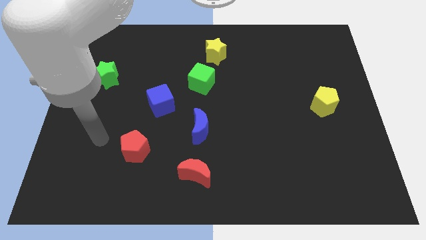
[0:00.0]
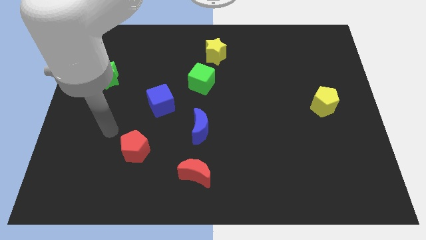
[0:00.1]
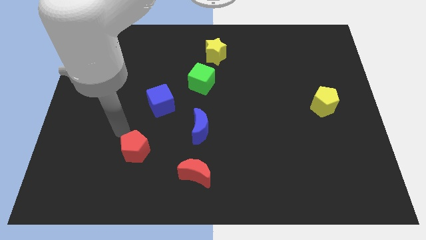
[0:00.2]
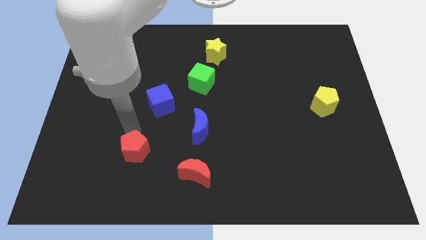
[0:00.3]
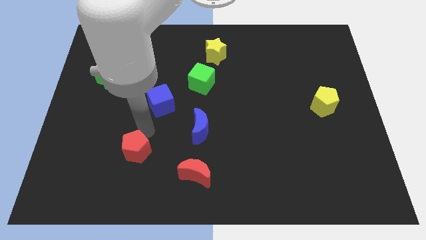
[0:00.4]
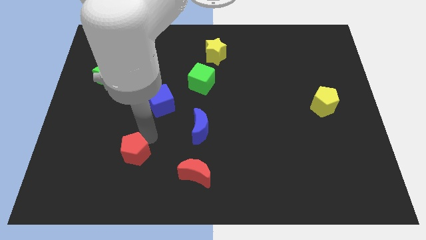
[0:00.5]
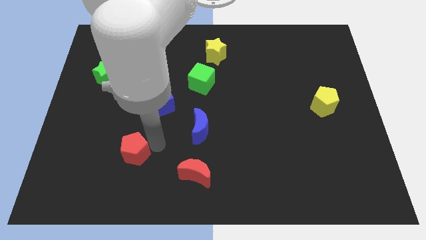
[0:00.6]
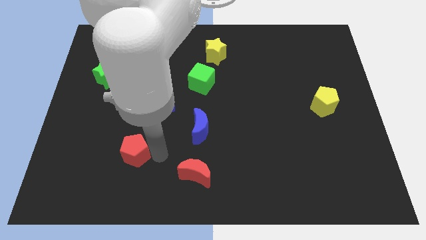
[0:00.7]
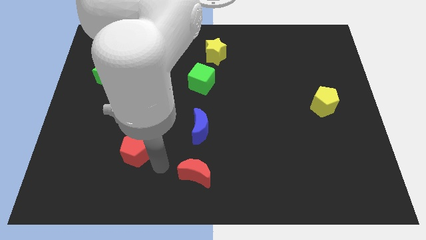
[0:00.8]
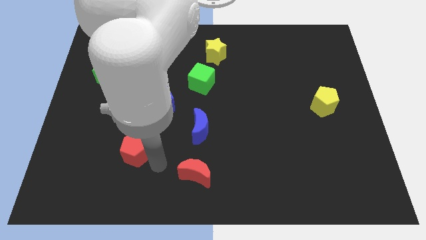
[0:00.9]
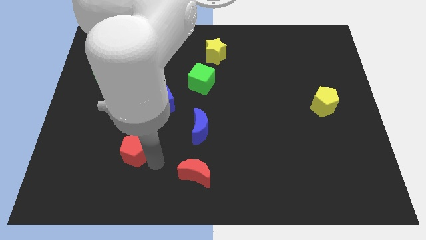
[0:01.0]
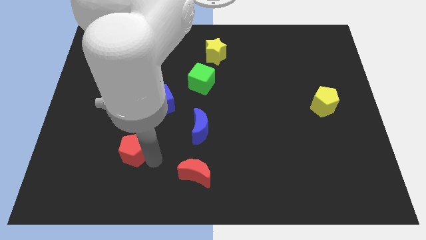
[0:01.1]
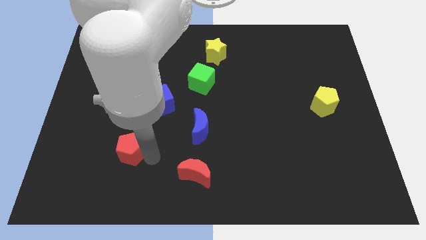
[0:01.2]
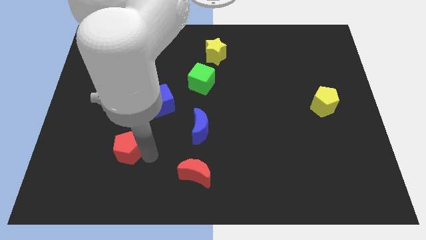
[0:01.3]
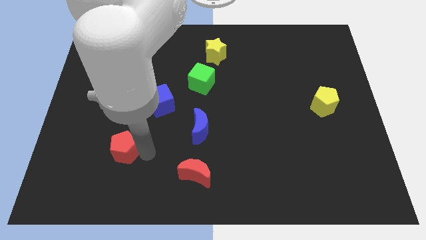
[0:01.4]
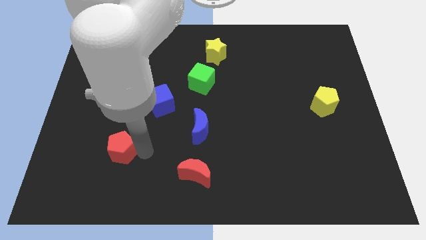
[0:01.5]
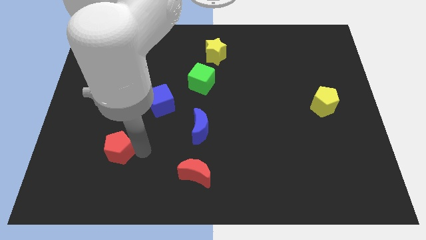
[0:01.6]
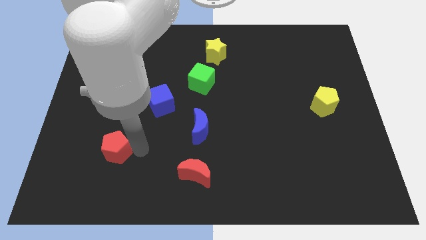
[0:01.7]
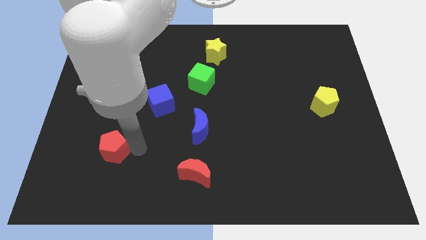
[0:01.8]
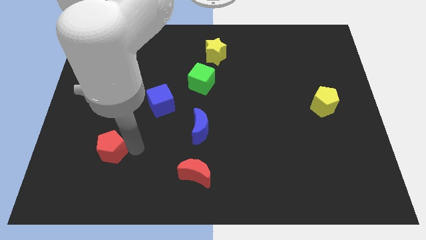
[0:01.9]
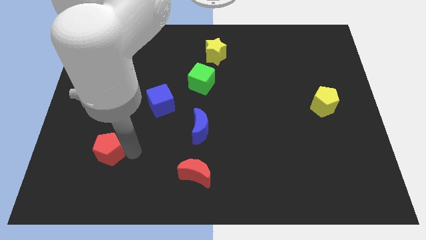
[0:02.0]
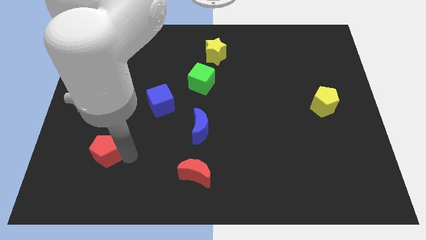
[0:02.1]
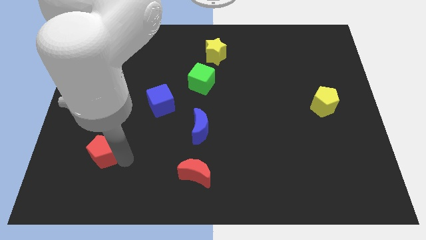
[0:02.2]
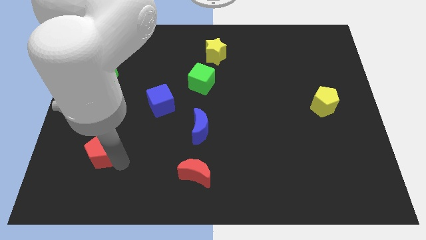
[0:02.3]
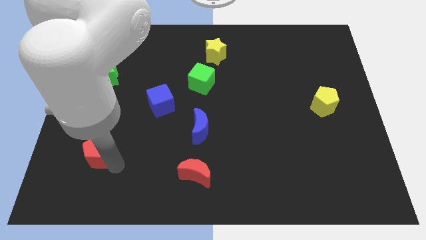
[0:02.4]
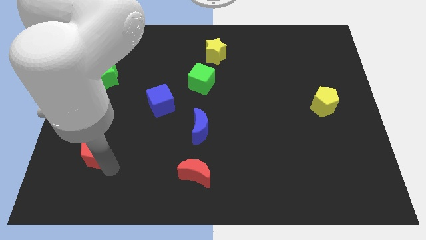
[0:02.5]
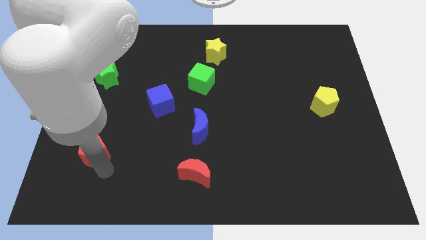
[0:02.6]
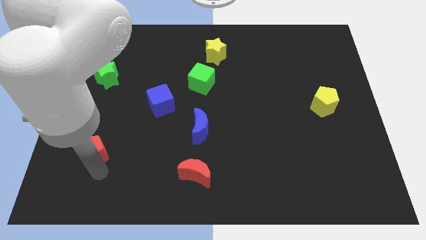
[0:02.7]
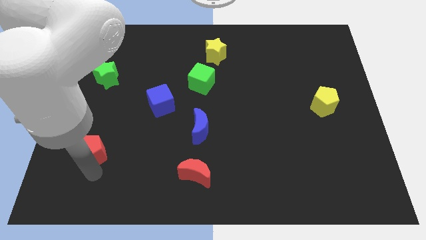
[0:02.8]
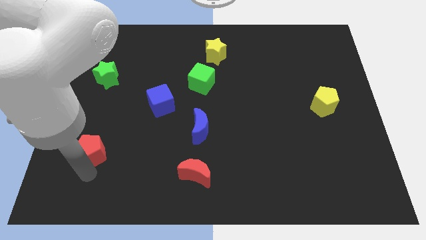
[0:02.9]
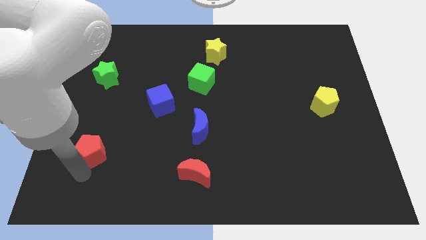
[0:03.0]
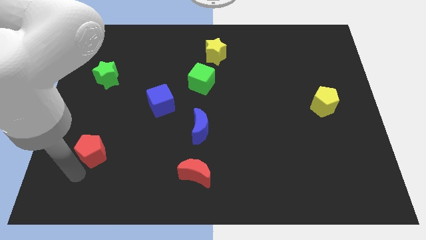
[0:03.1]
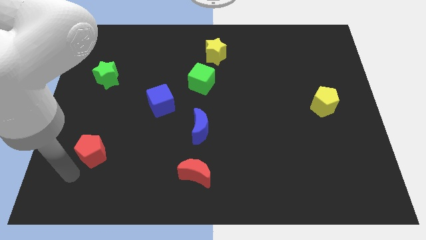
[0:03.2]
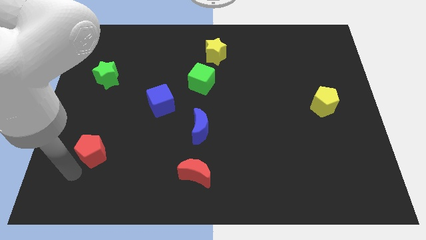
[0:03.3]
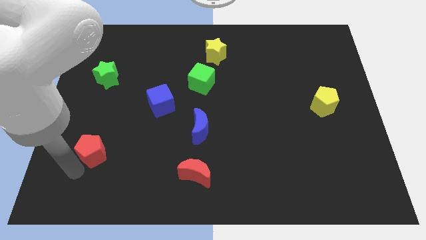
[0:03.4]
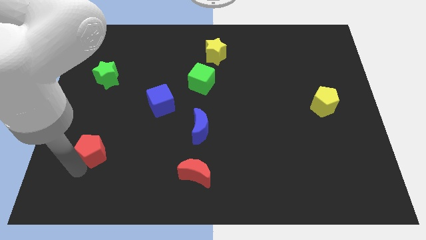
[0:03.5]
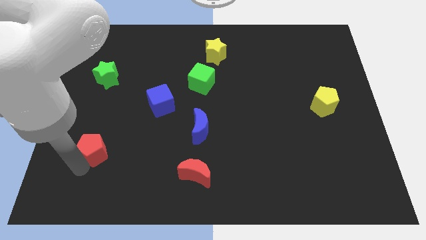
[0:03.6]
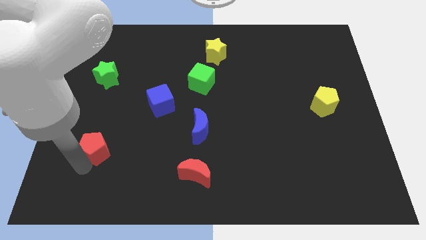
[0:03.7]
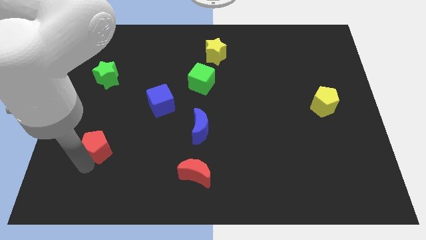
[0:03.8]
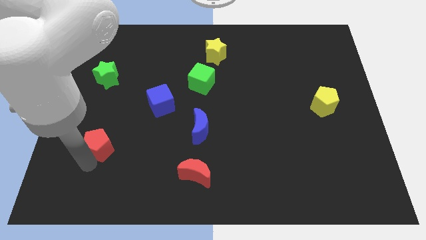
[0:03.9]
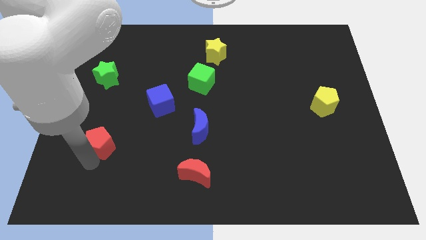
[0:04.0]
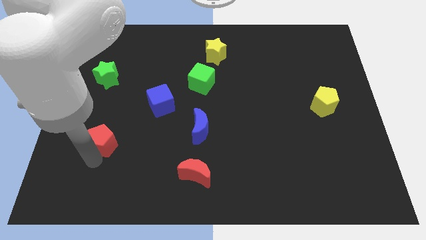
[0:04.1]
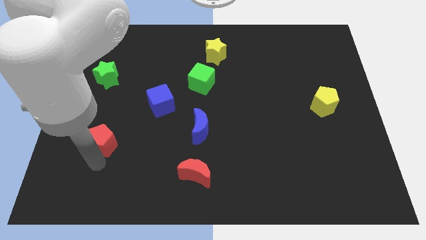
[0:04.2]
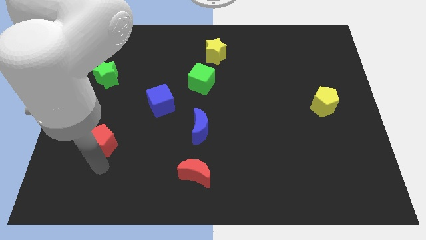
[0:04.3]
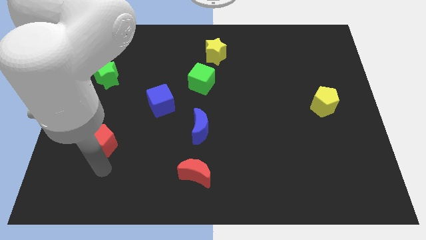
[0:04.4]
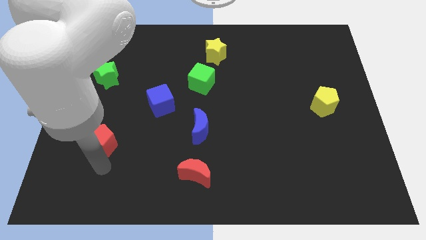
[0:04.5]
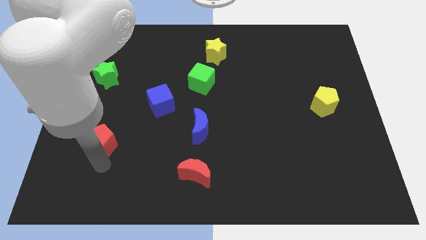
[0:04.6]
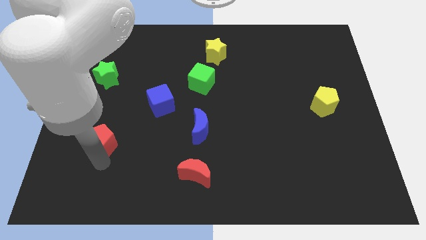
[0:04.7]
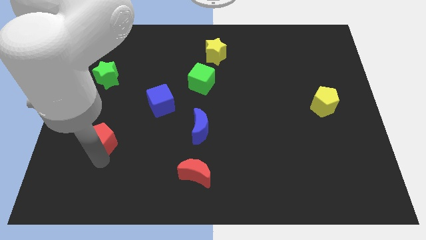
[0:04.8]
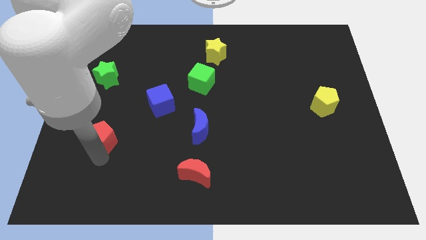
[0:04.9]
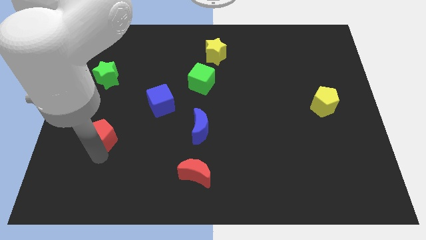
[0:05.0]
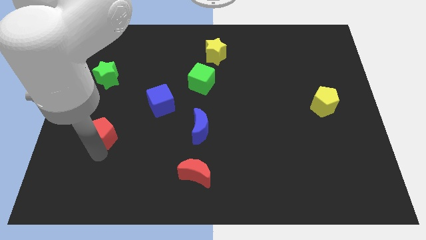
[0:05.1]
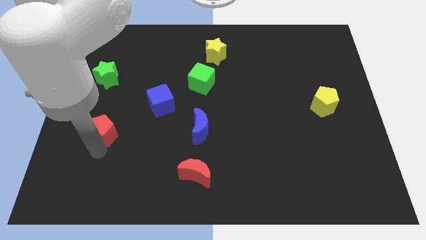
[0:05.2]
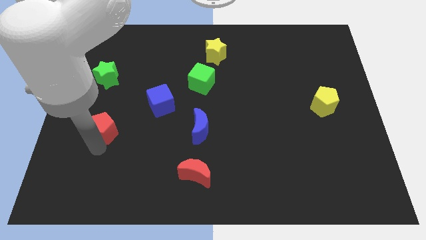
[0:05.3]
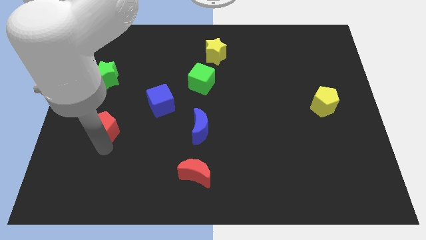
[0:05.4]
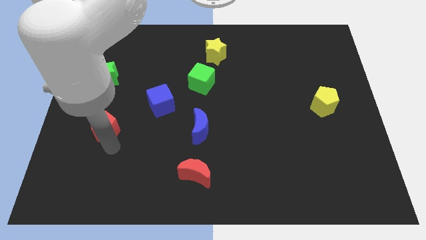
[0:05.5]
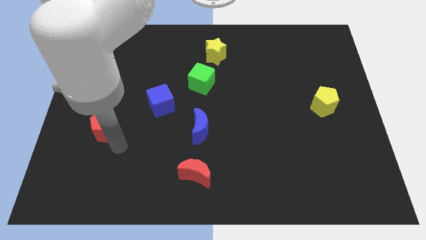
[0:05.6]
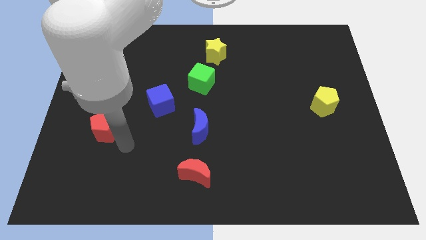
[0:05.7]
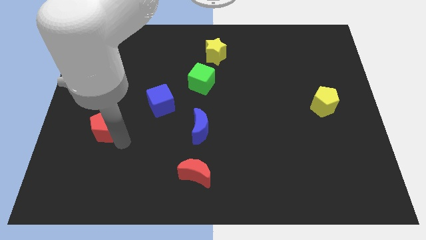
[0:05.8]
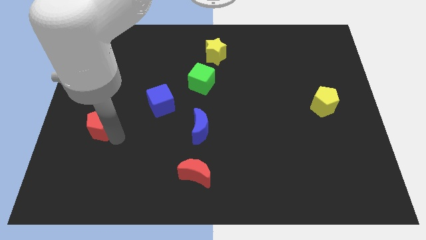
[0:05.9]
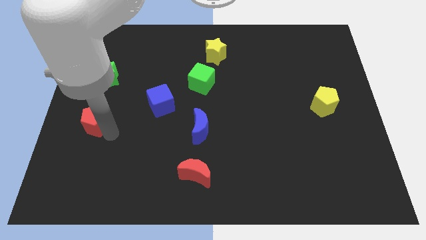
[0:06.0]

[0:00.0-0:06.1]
push the red pentagon to the left side

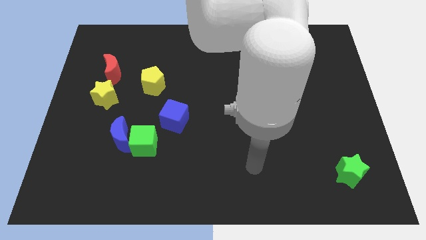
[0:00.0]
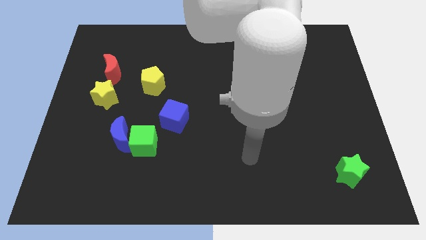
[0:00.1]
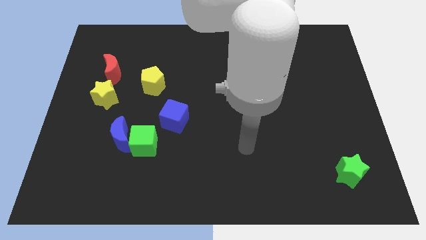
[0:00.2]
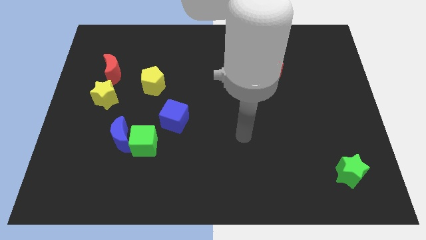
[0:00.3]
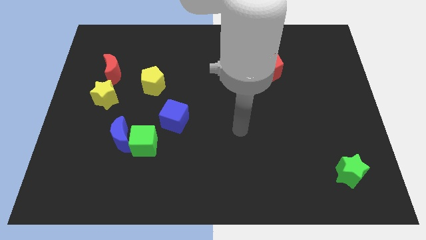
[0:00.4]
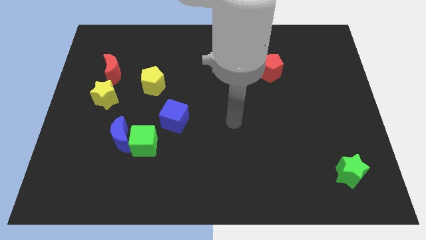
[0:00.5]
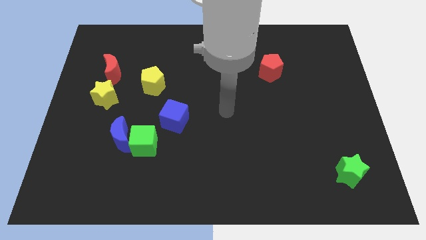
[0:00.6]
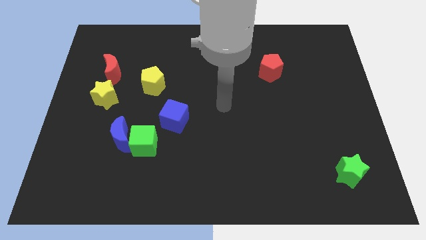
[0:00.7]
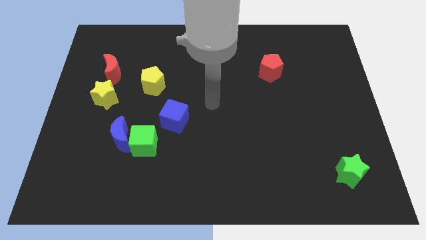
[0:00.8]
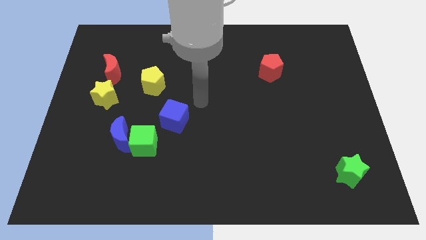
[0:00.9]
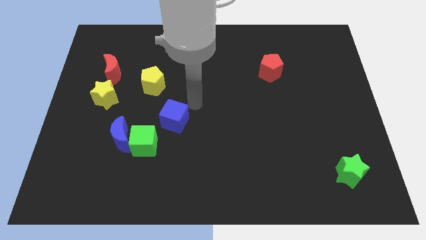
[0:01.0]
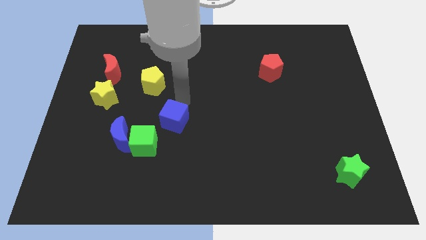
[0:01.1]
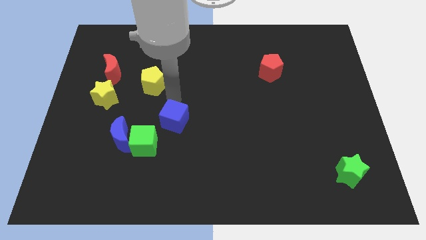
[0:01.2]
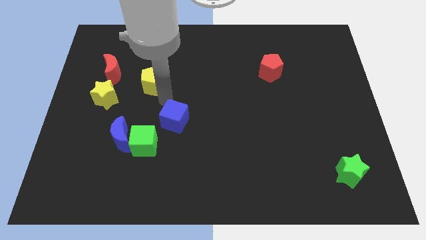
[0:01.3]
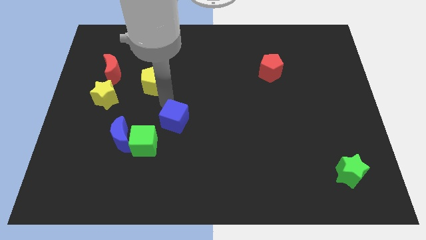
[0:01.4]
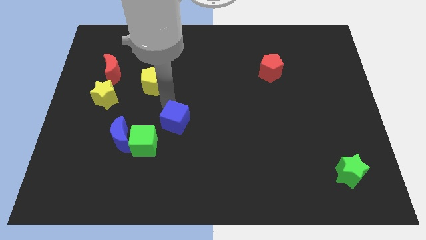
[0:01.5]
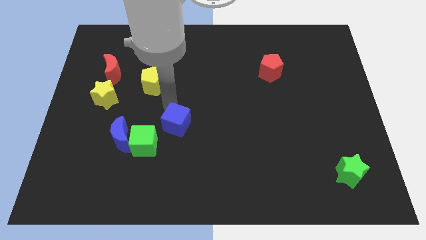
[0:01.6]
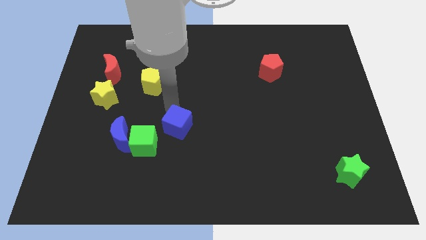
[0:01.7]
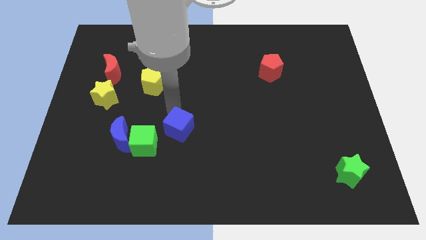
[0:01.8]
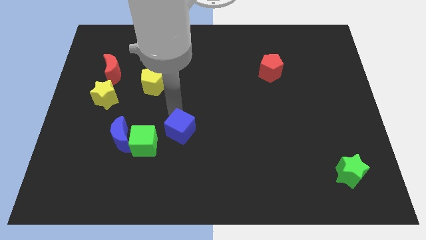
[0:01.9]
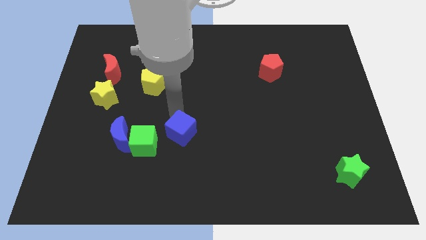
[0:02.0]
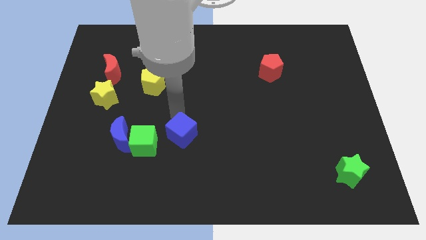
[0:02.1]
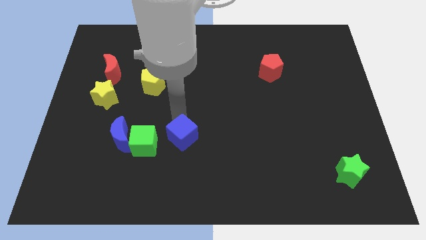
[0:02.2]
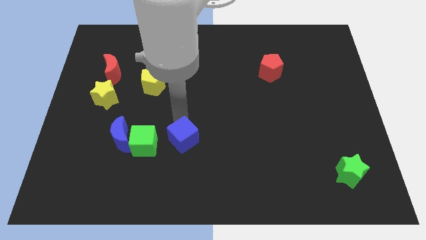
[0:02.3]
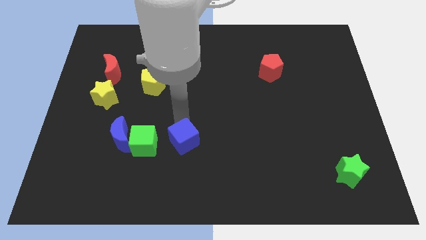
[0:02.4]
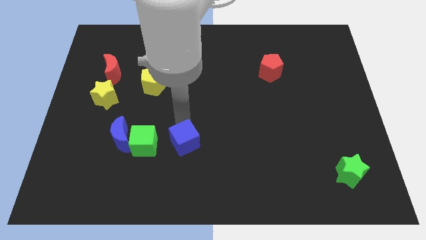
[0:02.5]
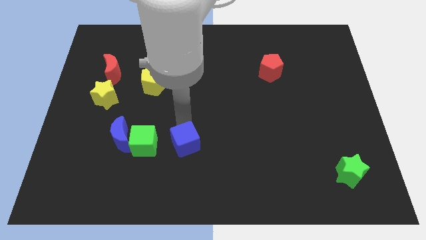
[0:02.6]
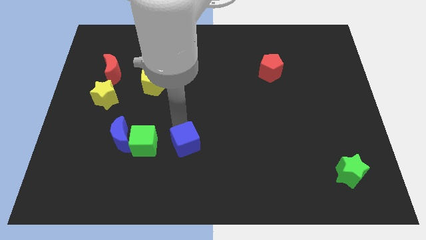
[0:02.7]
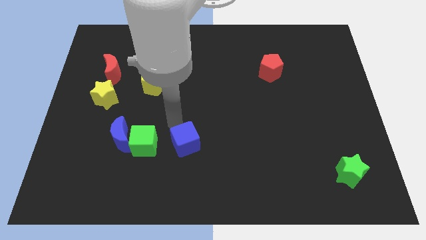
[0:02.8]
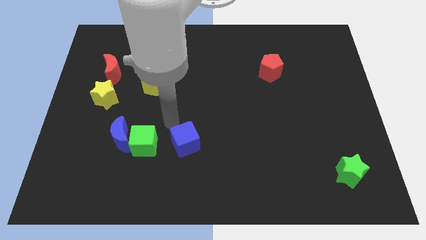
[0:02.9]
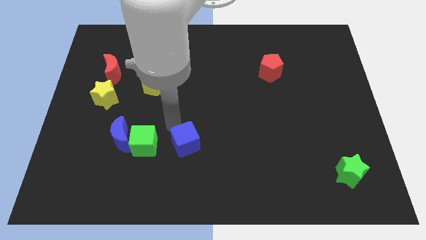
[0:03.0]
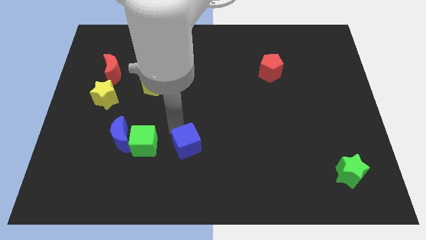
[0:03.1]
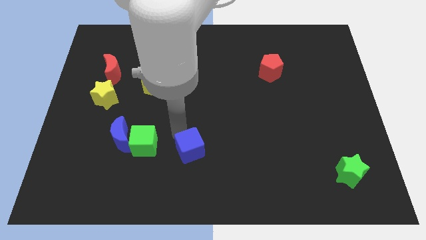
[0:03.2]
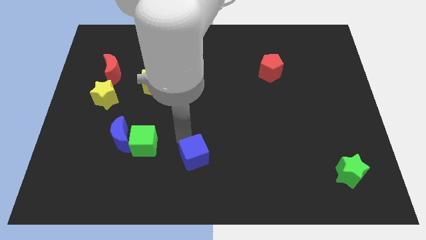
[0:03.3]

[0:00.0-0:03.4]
move the blue cube to the bottom
